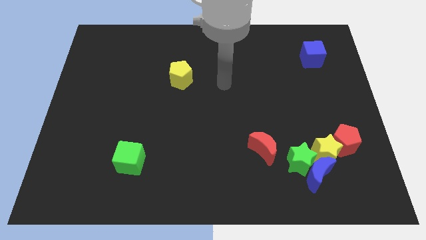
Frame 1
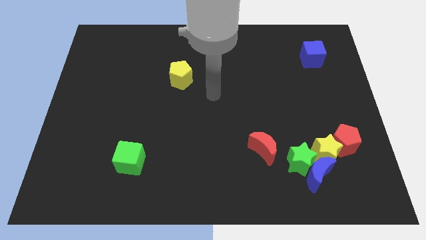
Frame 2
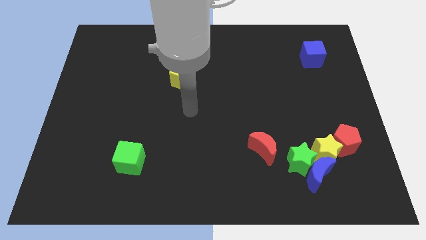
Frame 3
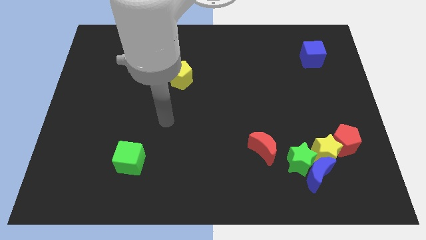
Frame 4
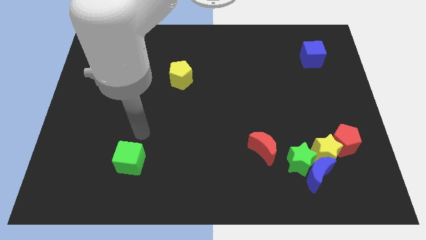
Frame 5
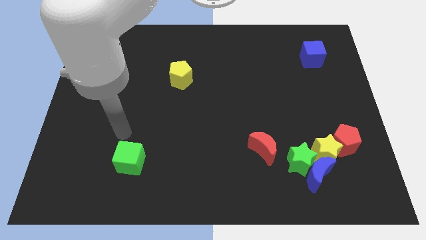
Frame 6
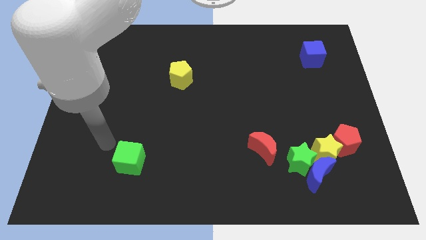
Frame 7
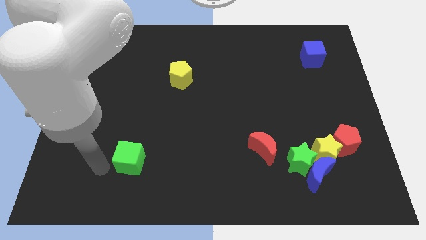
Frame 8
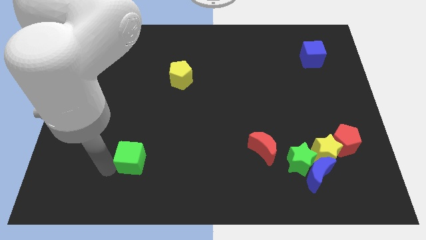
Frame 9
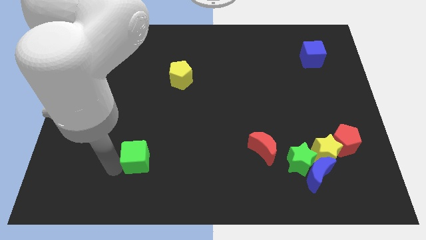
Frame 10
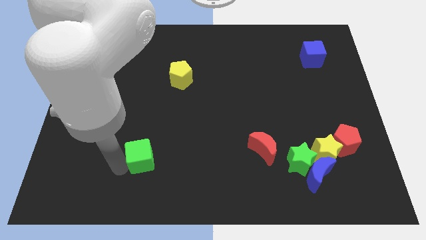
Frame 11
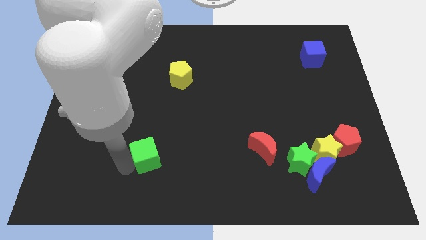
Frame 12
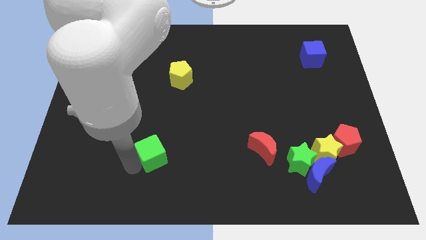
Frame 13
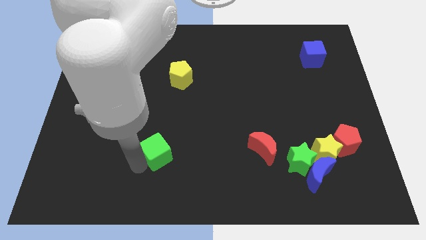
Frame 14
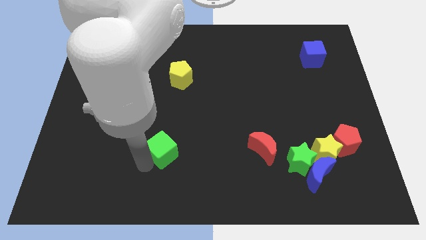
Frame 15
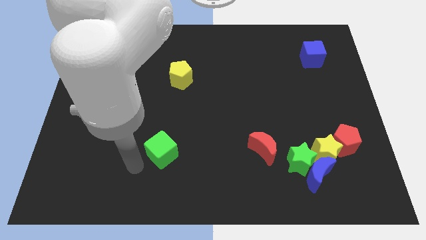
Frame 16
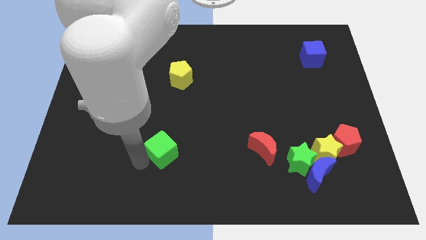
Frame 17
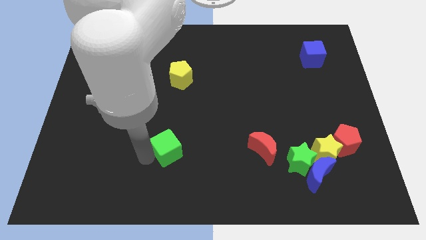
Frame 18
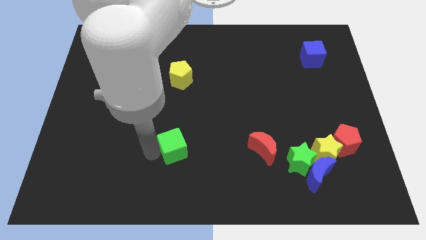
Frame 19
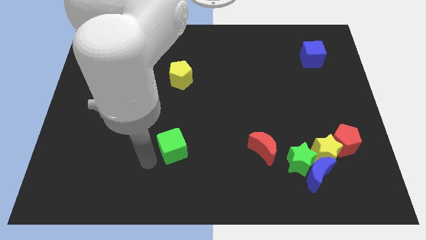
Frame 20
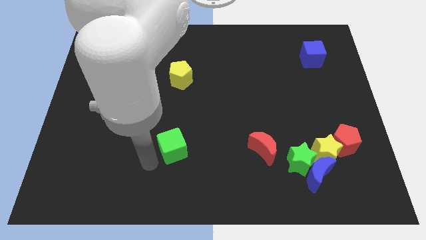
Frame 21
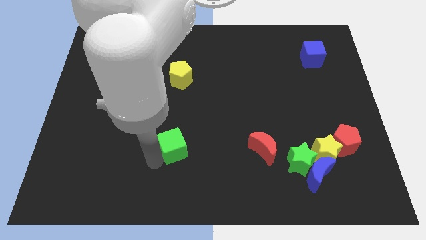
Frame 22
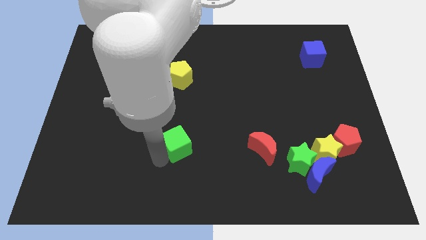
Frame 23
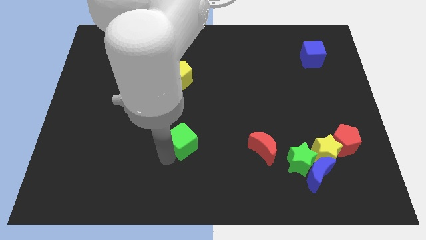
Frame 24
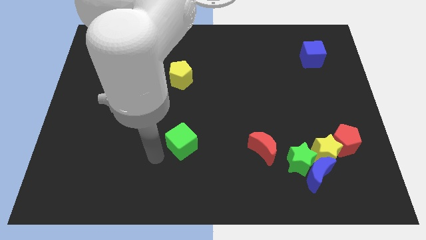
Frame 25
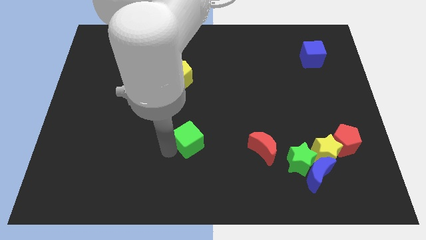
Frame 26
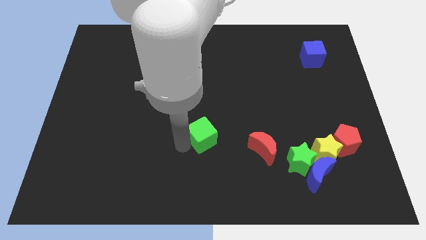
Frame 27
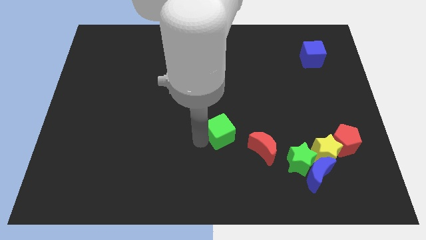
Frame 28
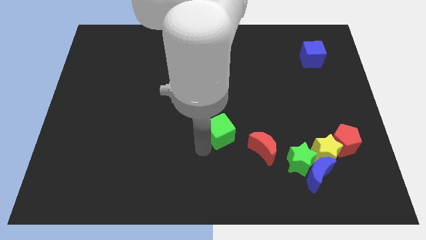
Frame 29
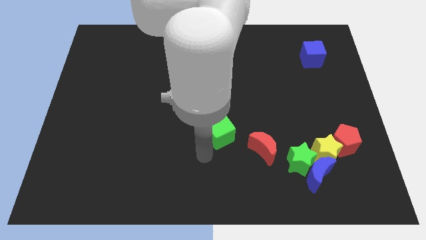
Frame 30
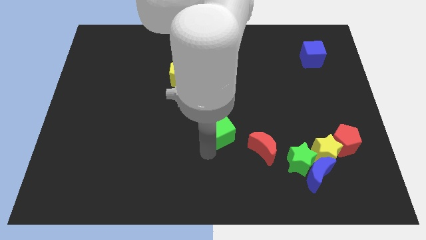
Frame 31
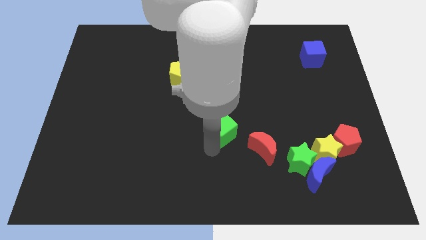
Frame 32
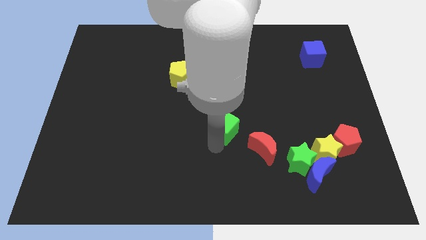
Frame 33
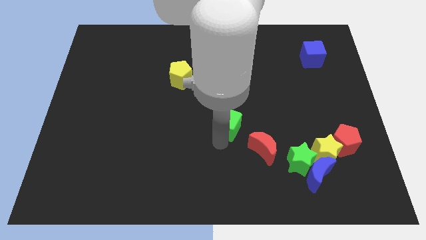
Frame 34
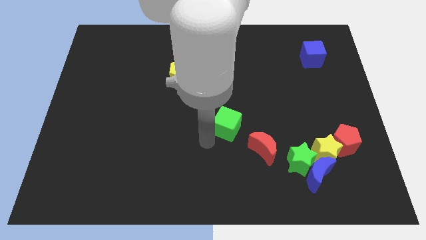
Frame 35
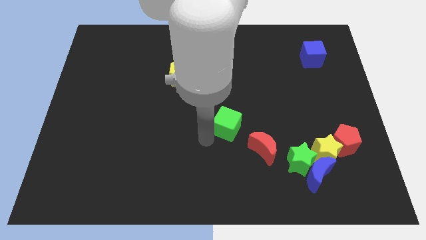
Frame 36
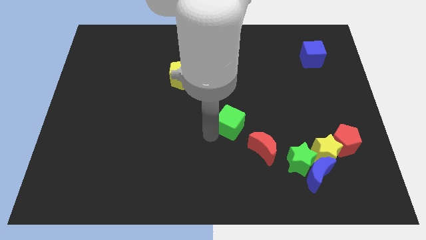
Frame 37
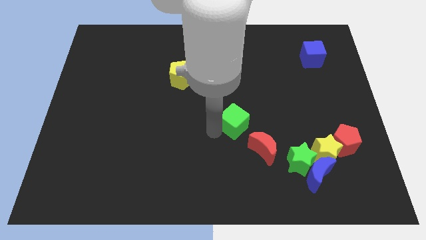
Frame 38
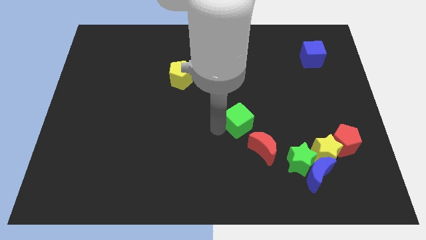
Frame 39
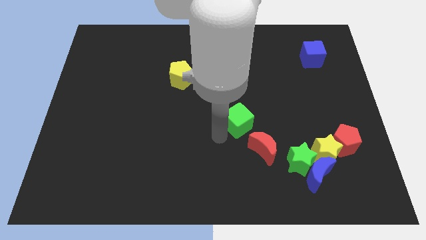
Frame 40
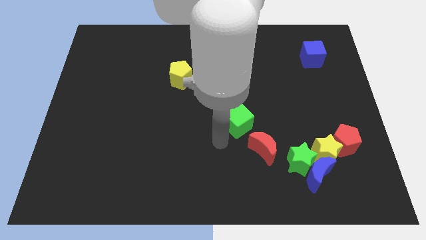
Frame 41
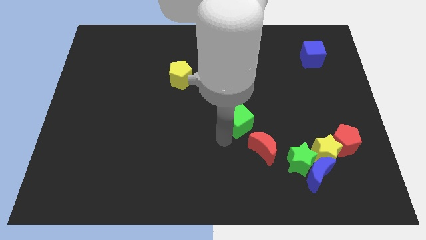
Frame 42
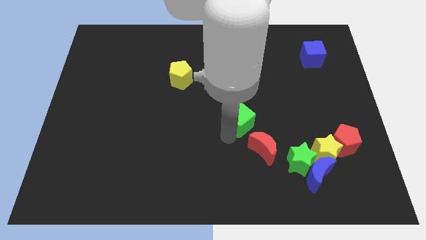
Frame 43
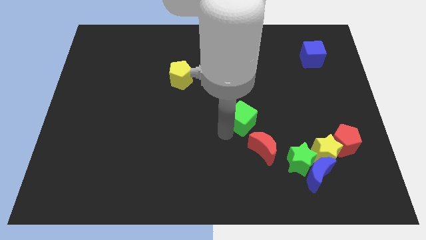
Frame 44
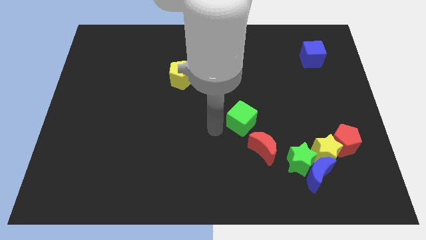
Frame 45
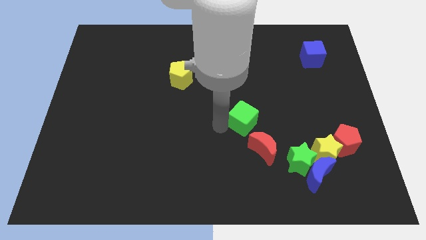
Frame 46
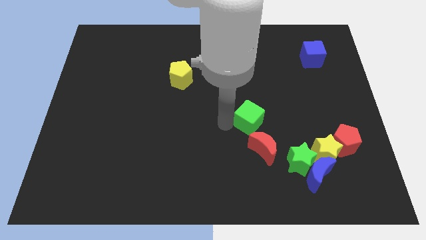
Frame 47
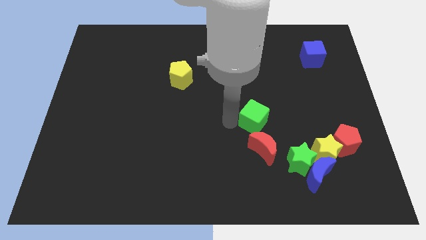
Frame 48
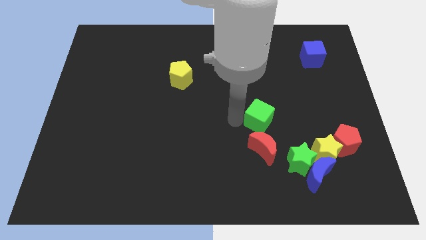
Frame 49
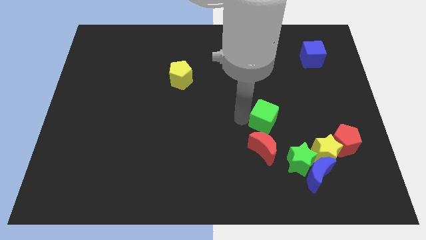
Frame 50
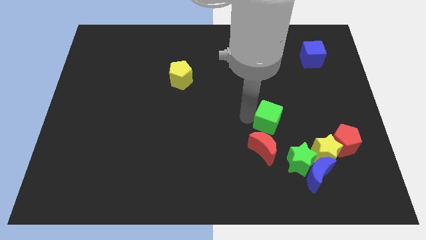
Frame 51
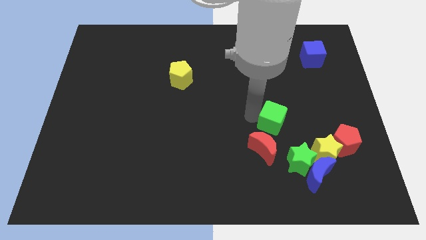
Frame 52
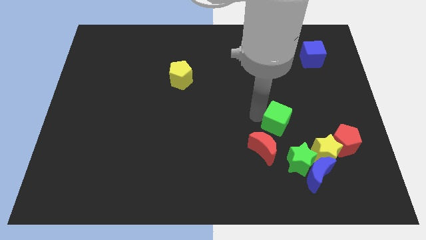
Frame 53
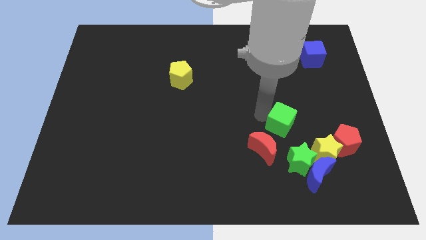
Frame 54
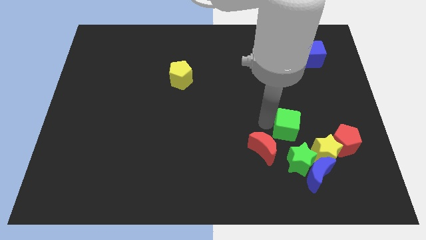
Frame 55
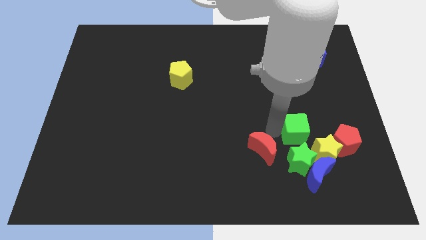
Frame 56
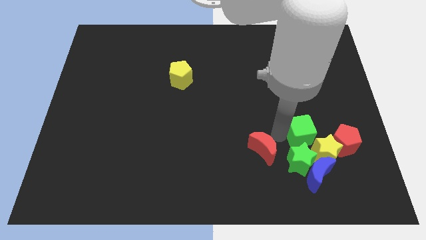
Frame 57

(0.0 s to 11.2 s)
move the green cube to the top side of the yellow star

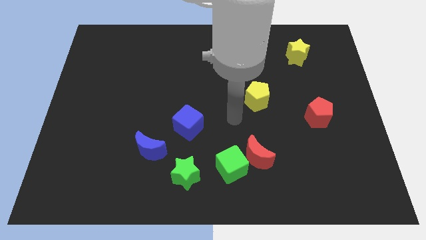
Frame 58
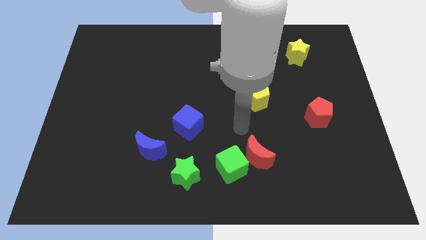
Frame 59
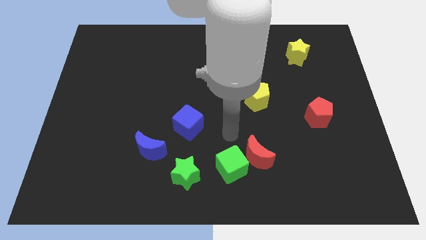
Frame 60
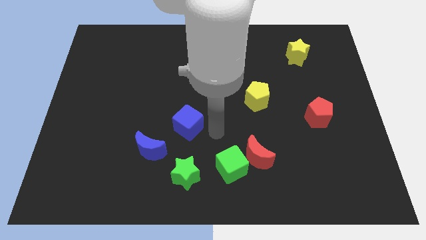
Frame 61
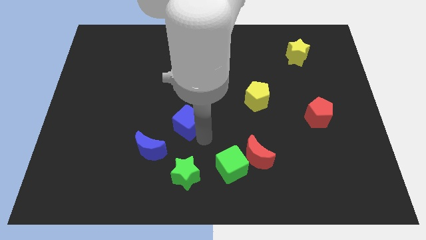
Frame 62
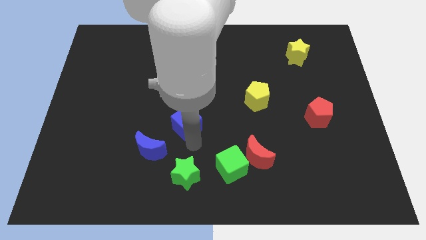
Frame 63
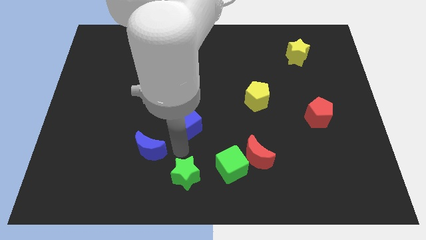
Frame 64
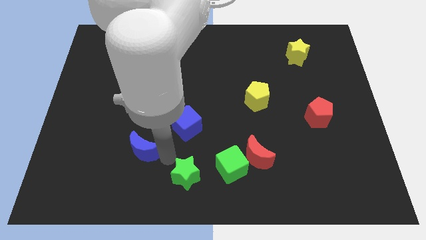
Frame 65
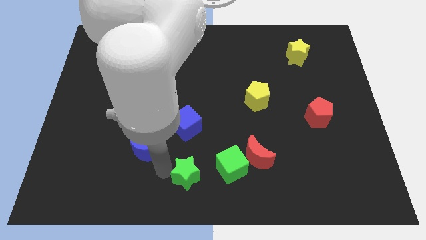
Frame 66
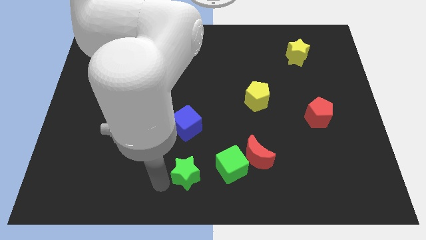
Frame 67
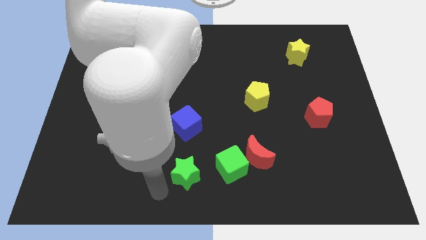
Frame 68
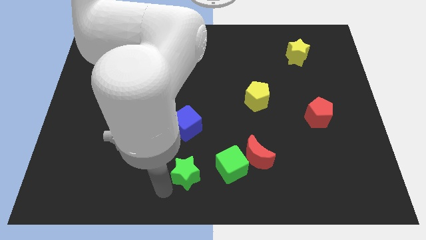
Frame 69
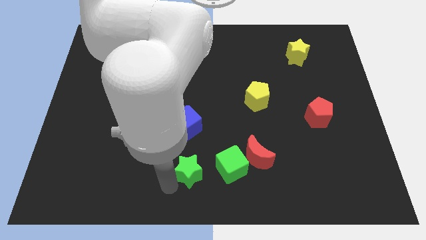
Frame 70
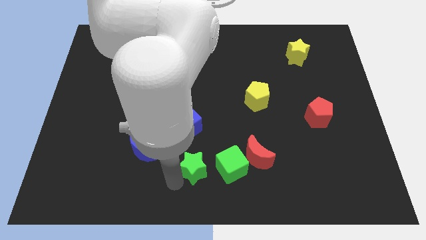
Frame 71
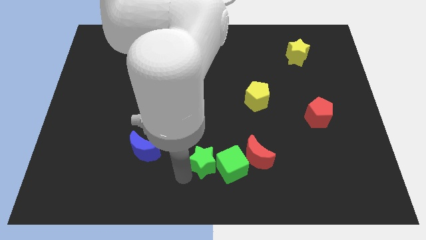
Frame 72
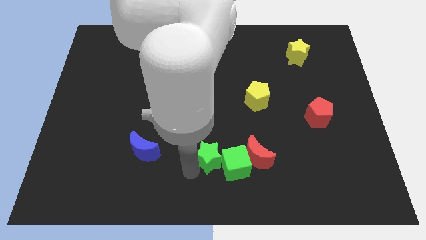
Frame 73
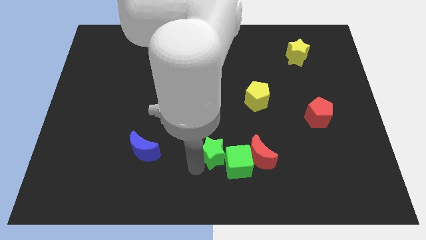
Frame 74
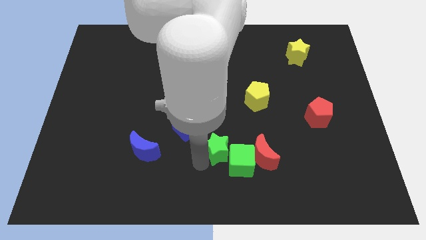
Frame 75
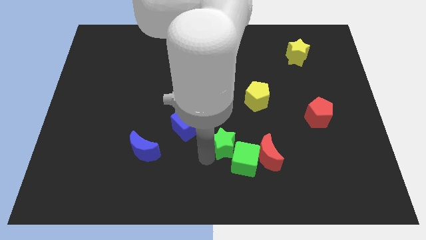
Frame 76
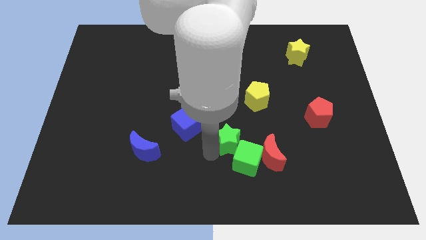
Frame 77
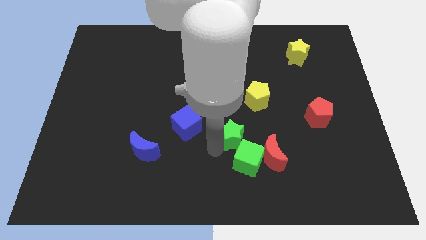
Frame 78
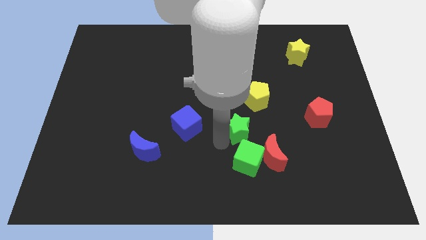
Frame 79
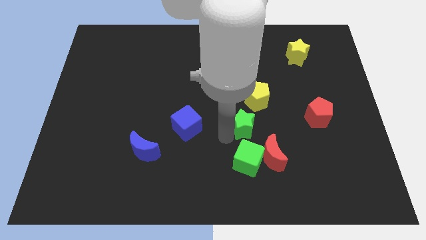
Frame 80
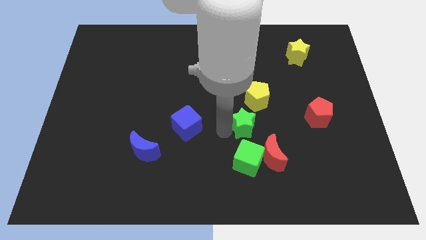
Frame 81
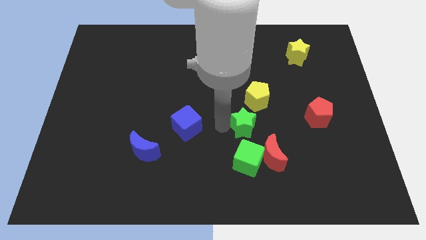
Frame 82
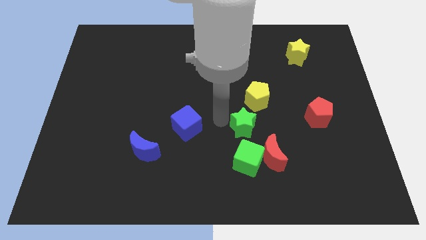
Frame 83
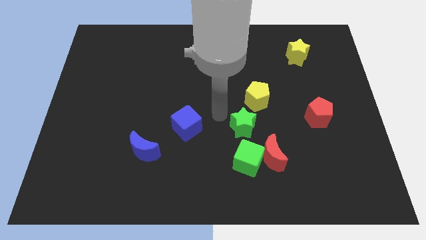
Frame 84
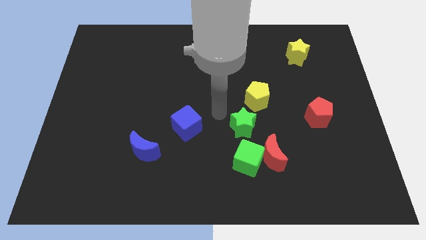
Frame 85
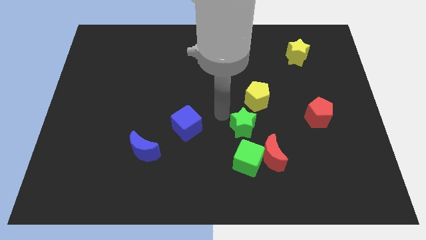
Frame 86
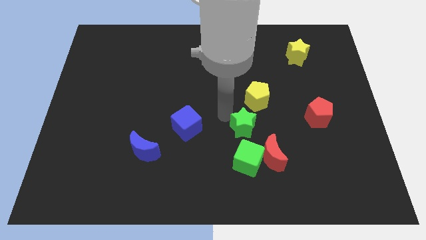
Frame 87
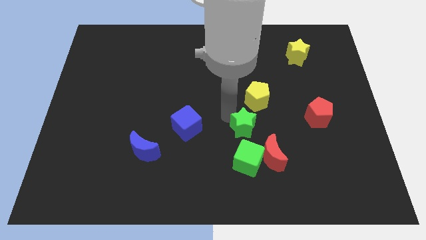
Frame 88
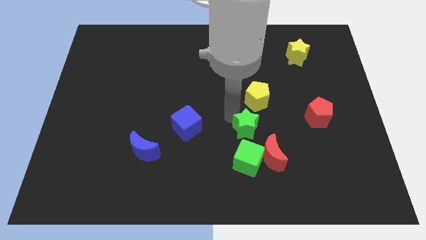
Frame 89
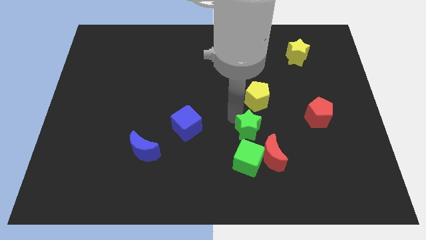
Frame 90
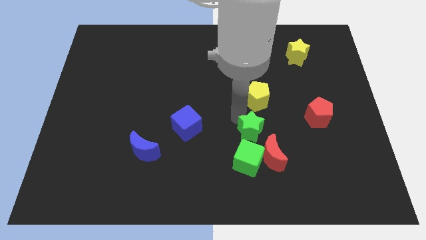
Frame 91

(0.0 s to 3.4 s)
move the green star to the top right of the green cube
